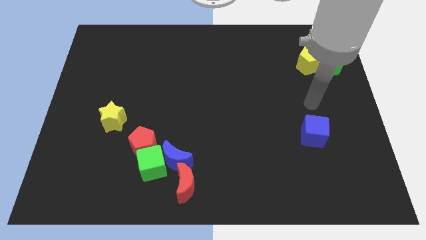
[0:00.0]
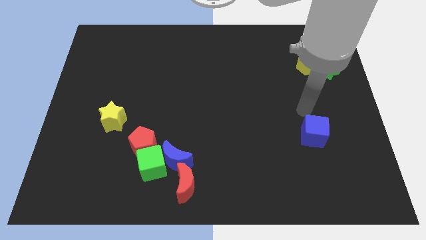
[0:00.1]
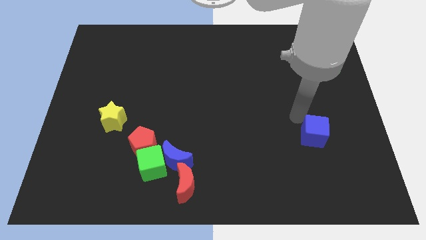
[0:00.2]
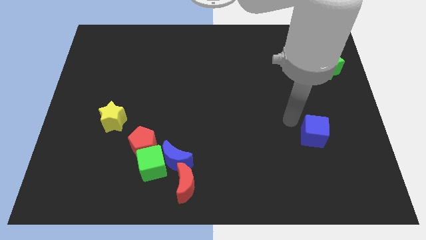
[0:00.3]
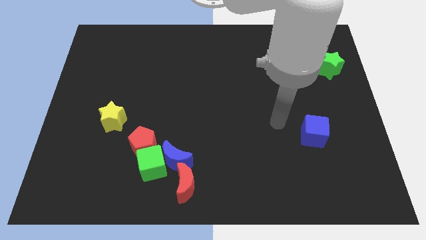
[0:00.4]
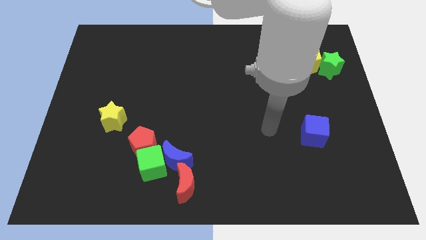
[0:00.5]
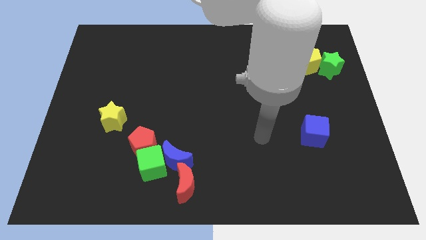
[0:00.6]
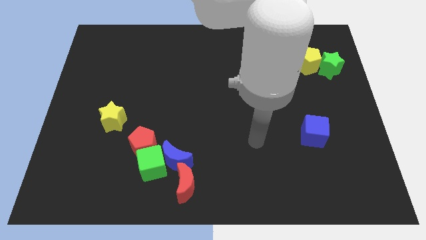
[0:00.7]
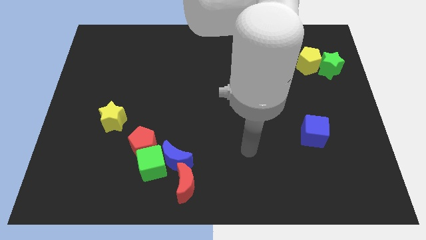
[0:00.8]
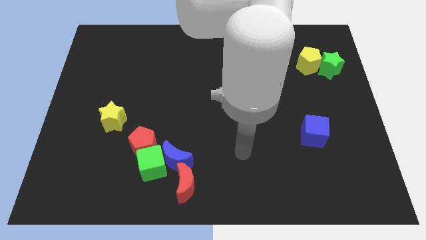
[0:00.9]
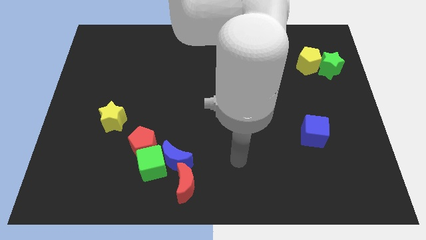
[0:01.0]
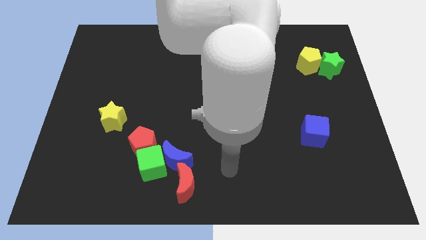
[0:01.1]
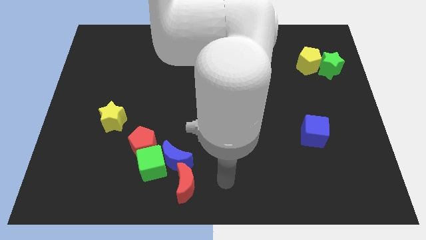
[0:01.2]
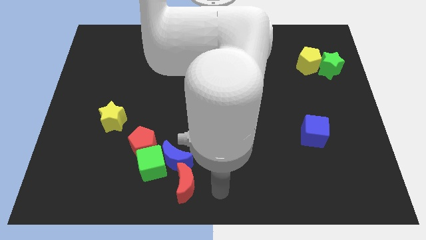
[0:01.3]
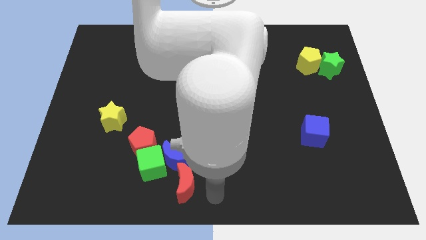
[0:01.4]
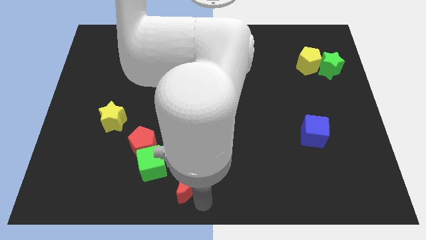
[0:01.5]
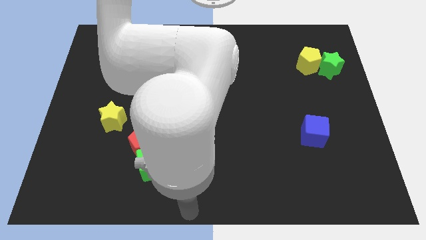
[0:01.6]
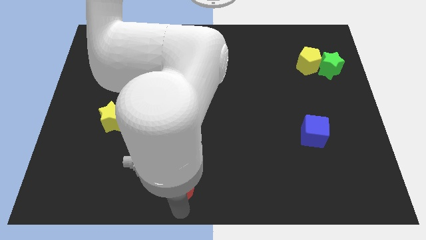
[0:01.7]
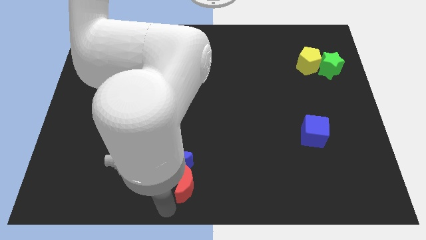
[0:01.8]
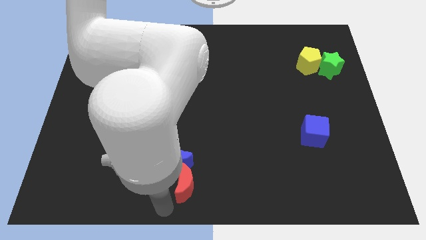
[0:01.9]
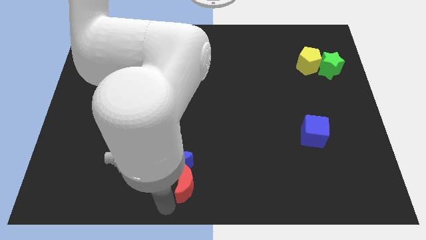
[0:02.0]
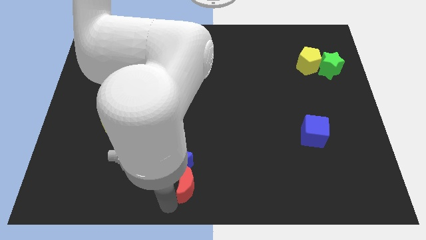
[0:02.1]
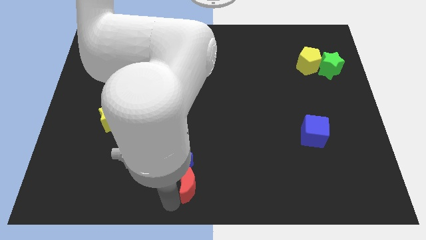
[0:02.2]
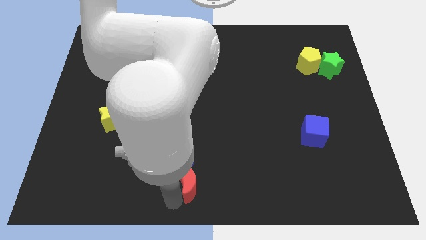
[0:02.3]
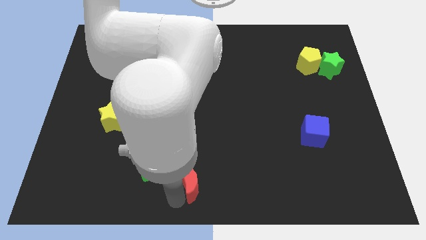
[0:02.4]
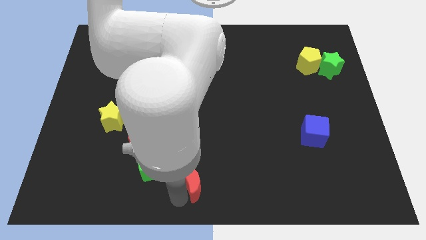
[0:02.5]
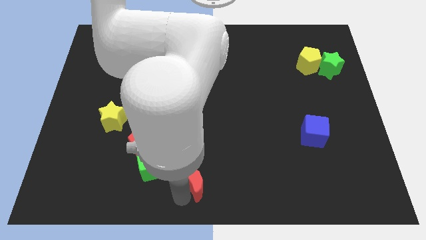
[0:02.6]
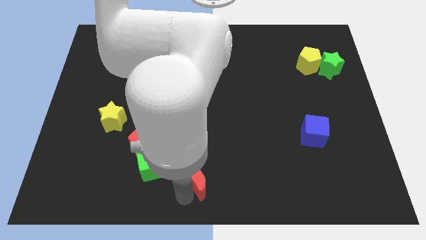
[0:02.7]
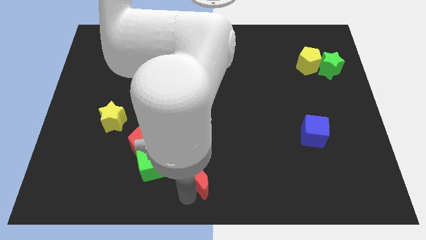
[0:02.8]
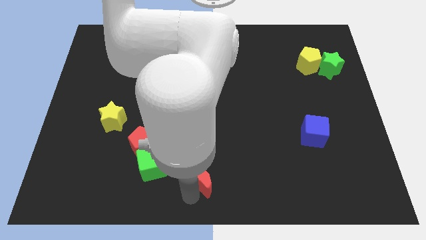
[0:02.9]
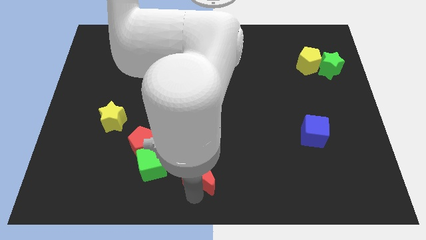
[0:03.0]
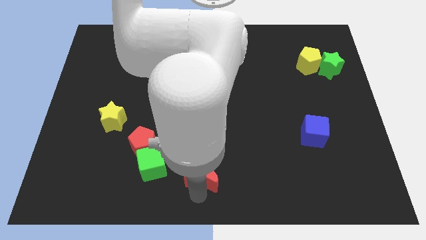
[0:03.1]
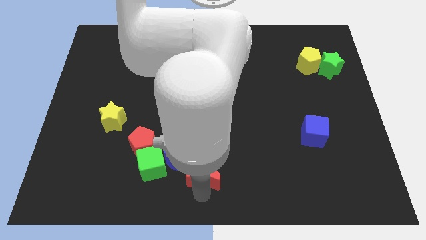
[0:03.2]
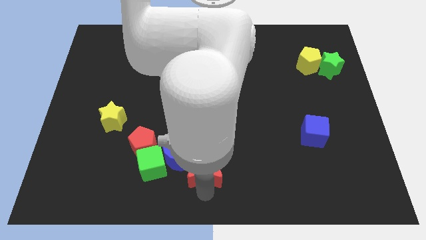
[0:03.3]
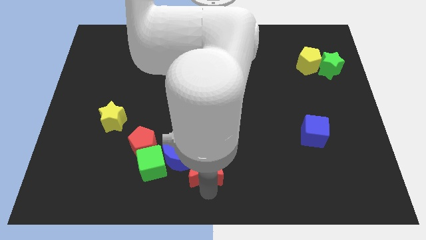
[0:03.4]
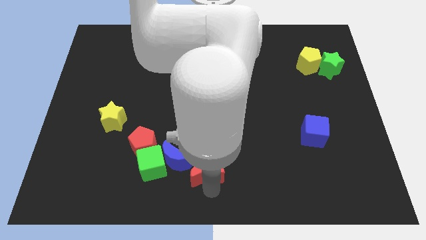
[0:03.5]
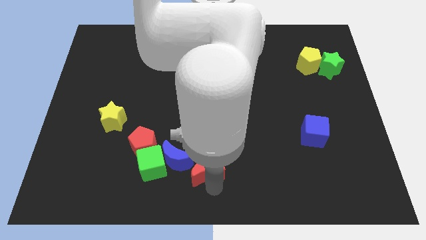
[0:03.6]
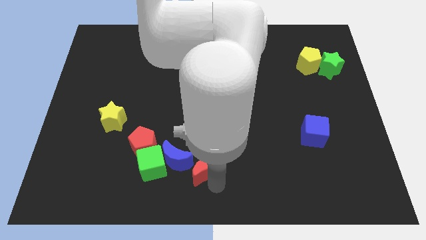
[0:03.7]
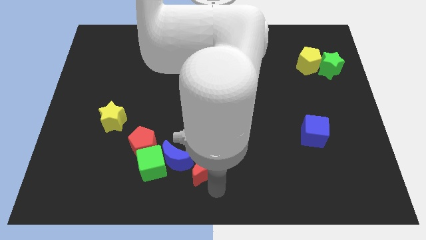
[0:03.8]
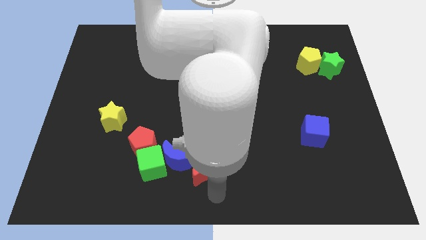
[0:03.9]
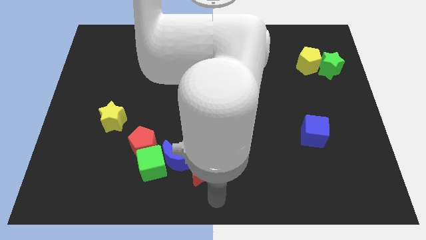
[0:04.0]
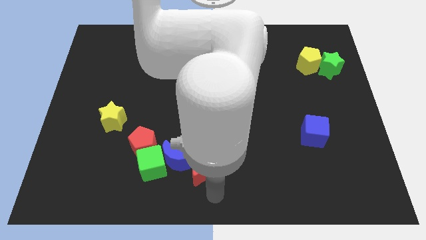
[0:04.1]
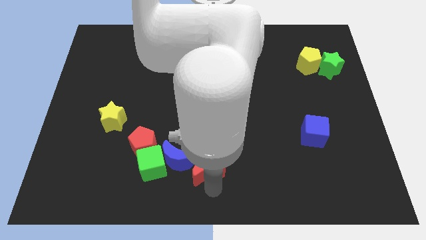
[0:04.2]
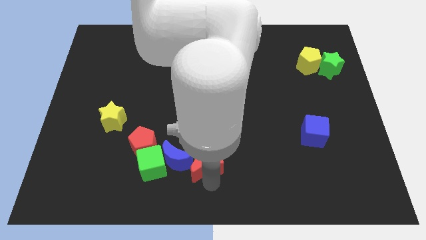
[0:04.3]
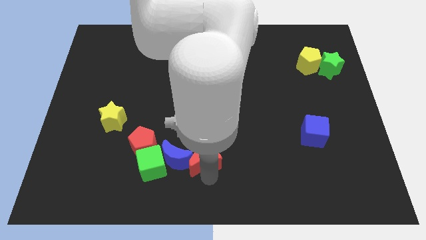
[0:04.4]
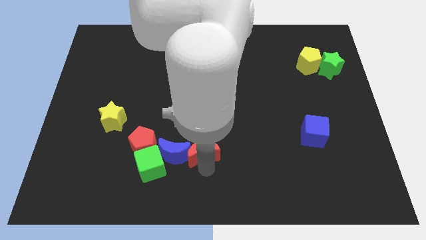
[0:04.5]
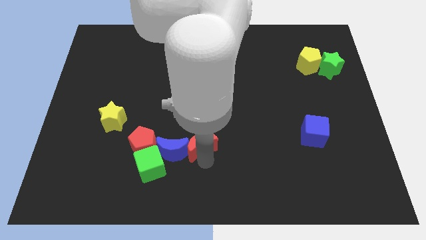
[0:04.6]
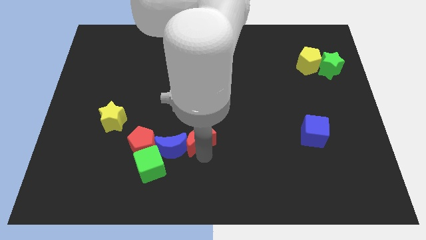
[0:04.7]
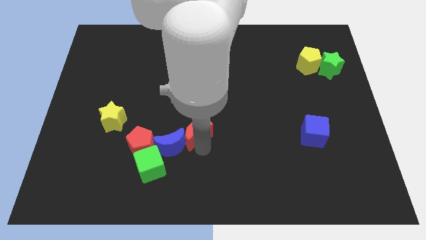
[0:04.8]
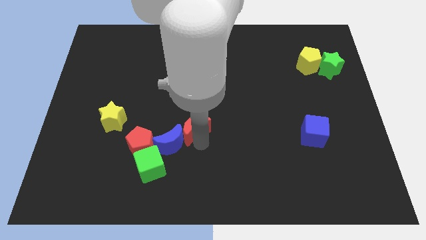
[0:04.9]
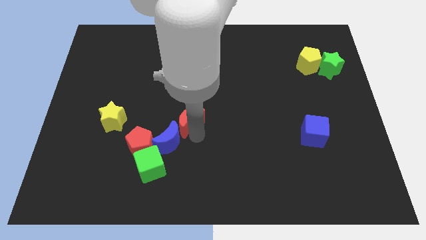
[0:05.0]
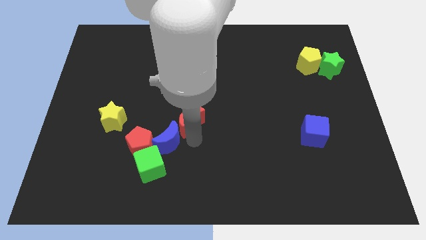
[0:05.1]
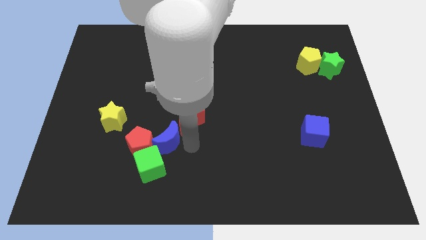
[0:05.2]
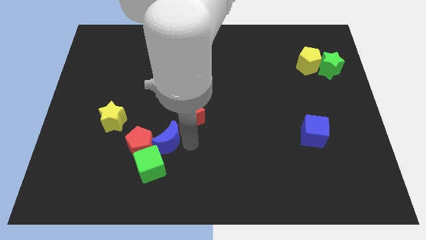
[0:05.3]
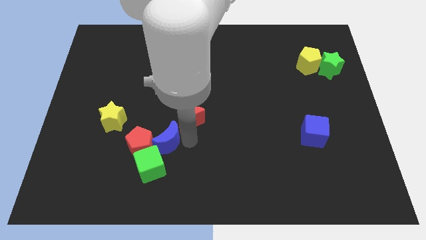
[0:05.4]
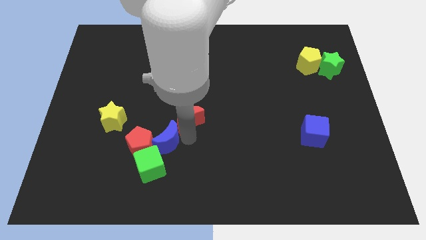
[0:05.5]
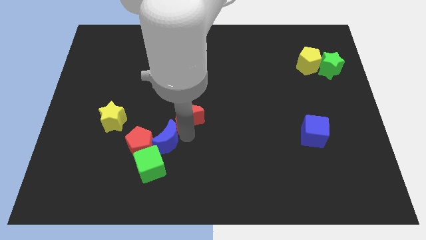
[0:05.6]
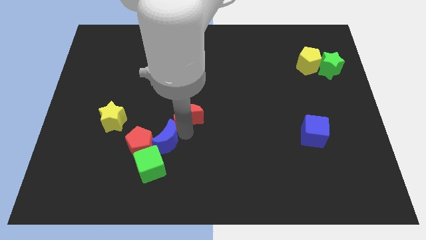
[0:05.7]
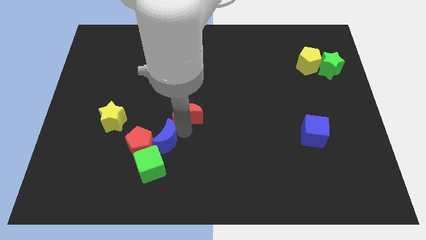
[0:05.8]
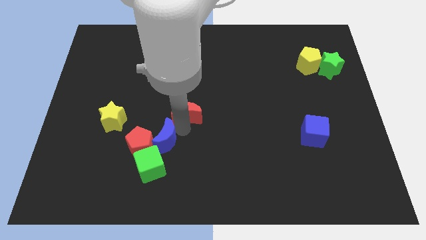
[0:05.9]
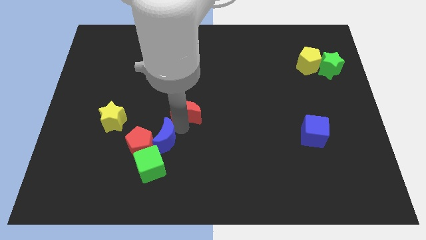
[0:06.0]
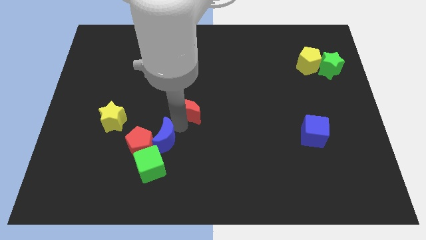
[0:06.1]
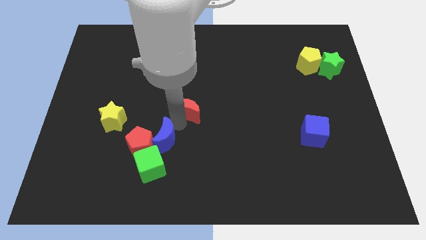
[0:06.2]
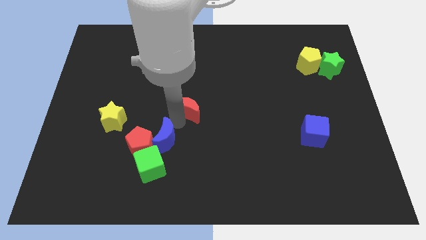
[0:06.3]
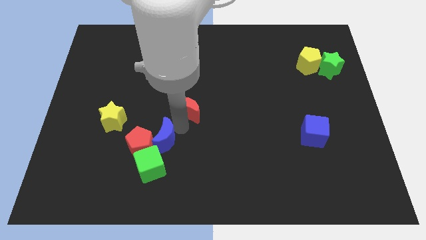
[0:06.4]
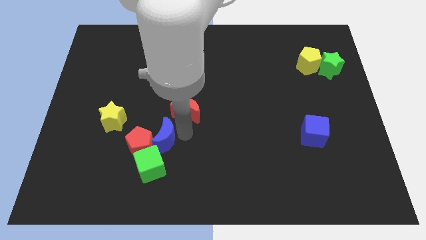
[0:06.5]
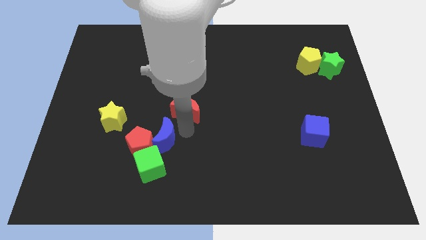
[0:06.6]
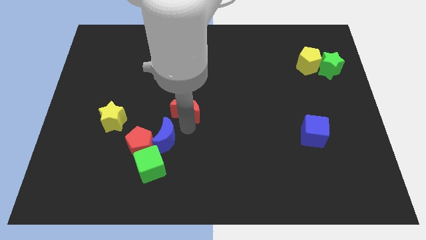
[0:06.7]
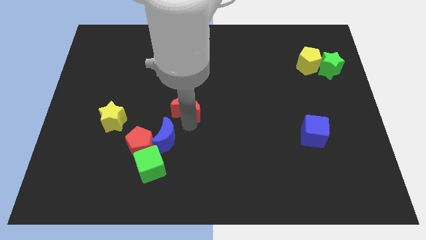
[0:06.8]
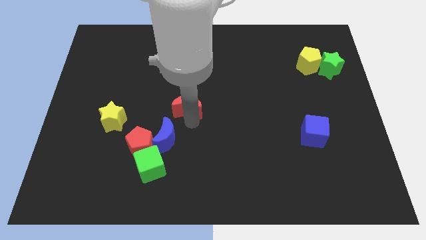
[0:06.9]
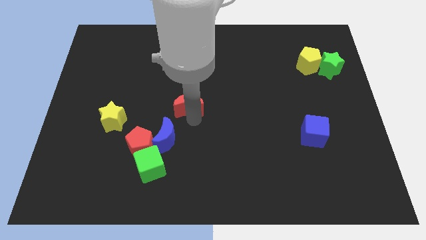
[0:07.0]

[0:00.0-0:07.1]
move the red moon upwards

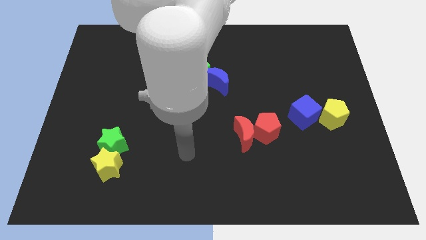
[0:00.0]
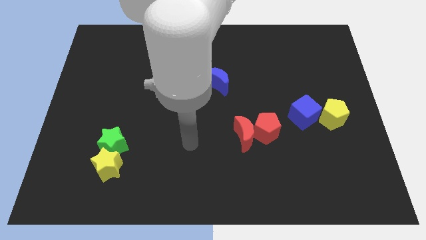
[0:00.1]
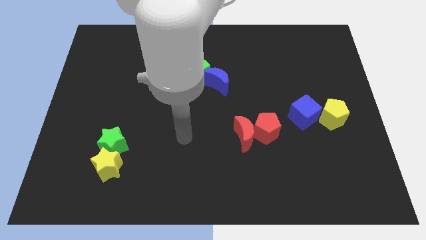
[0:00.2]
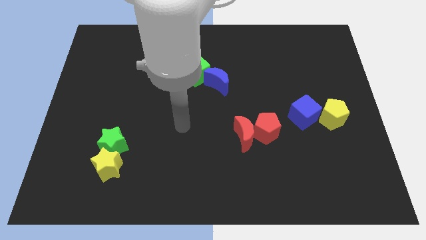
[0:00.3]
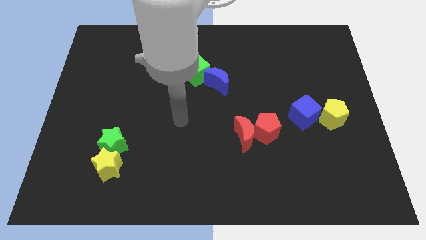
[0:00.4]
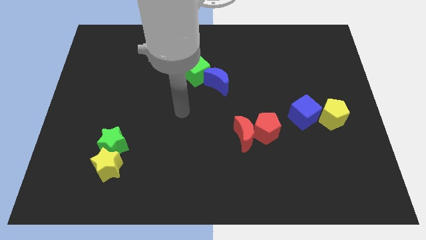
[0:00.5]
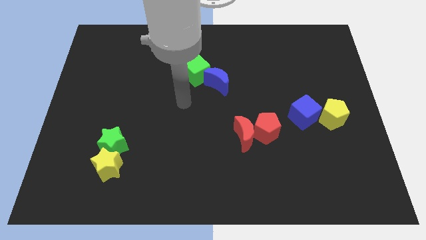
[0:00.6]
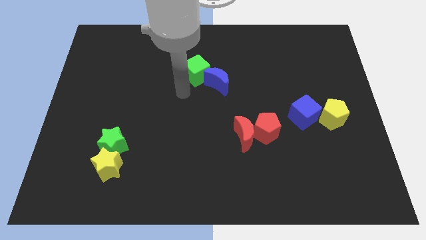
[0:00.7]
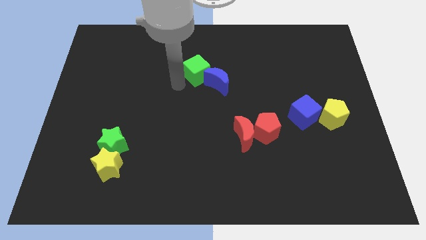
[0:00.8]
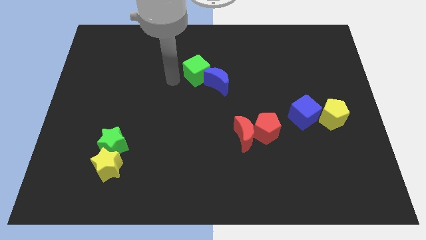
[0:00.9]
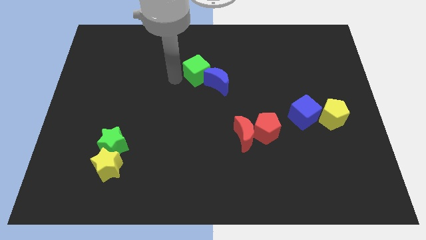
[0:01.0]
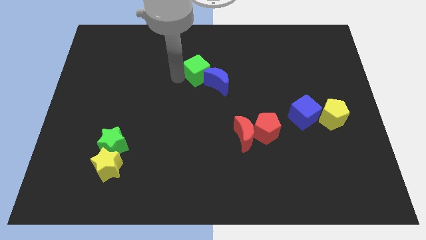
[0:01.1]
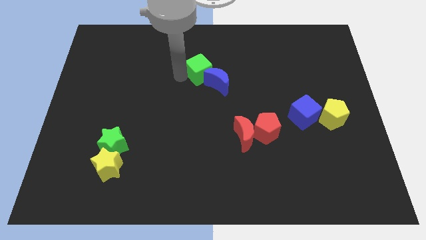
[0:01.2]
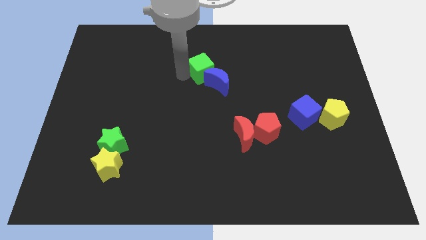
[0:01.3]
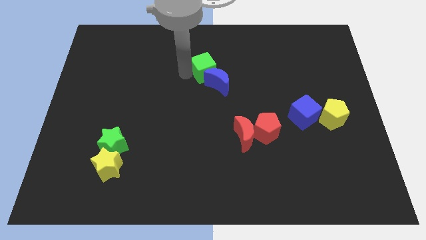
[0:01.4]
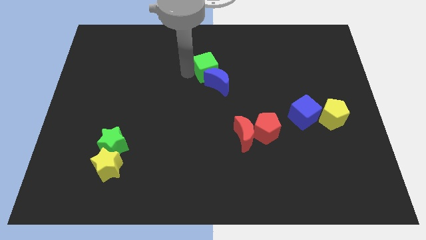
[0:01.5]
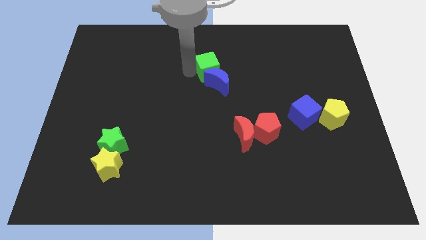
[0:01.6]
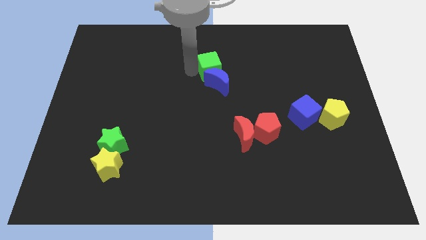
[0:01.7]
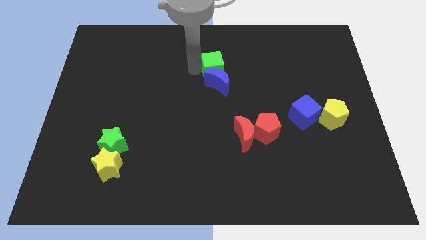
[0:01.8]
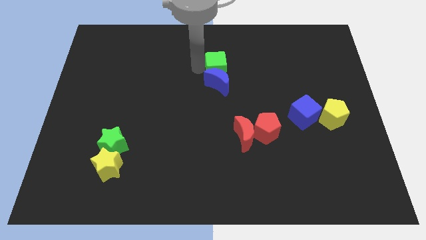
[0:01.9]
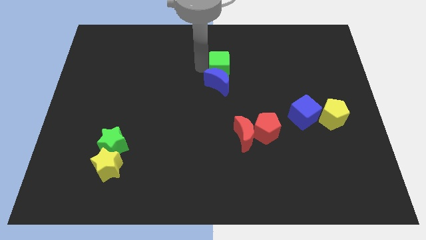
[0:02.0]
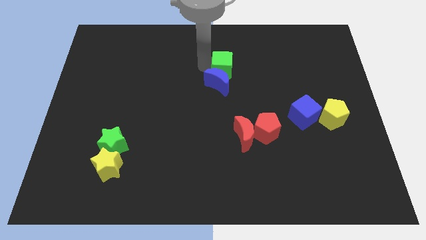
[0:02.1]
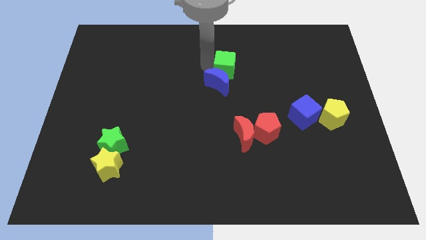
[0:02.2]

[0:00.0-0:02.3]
move the green cube a bit right
